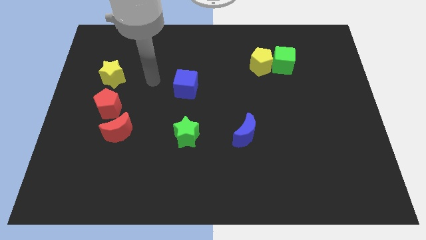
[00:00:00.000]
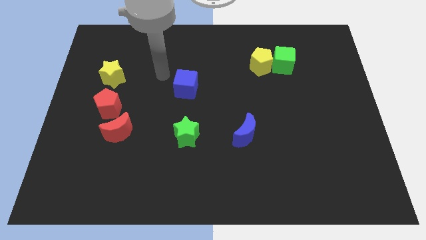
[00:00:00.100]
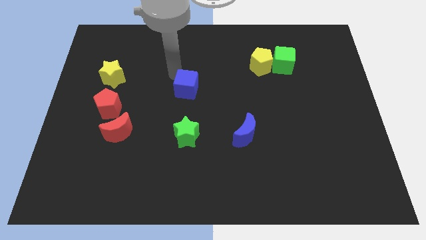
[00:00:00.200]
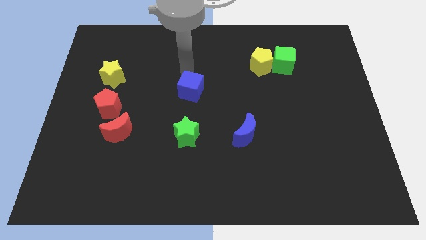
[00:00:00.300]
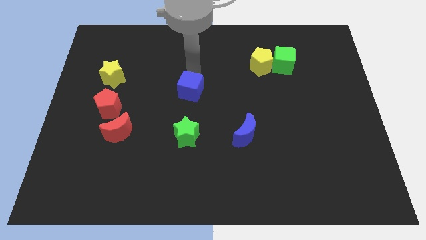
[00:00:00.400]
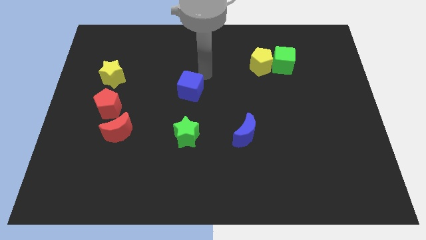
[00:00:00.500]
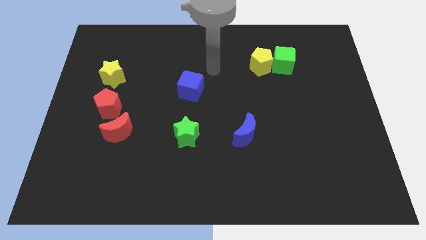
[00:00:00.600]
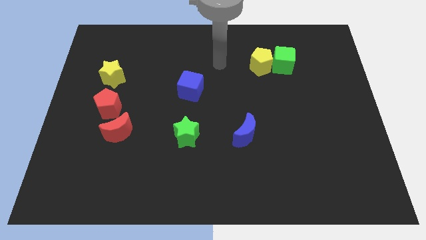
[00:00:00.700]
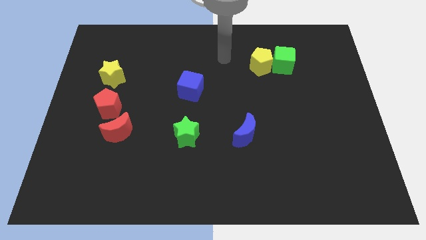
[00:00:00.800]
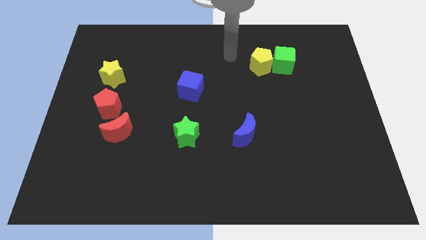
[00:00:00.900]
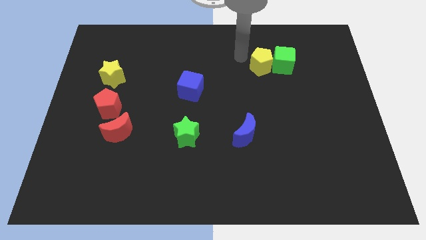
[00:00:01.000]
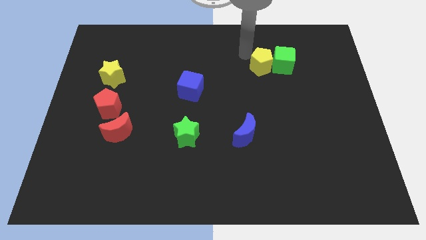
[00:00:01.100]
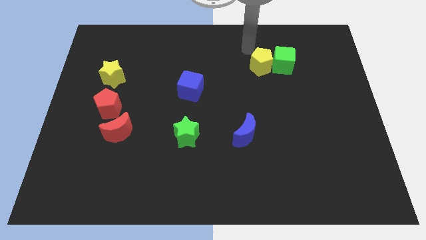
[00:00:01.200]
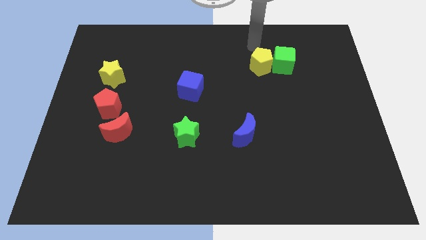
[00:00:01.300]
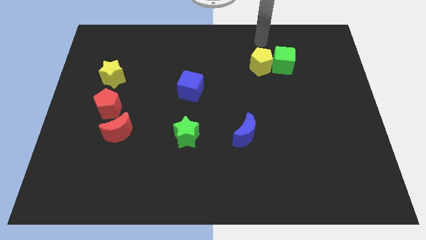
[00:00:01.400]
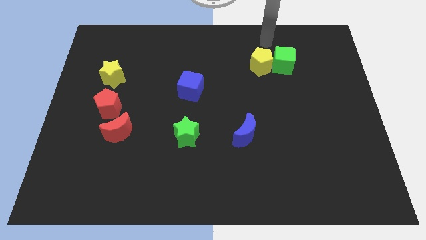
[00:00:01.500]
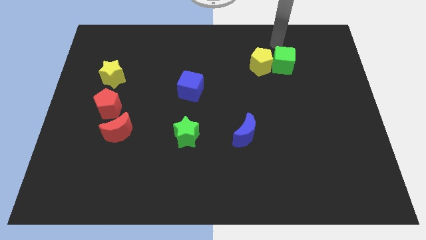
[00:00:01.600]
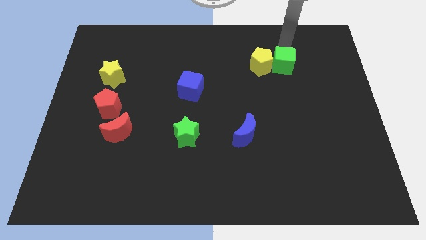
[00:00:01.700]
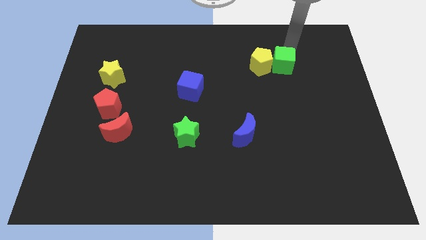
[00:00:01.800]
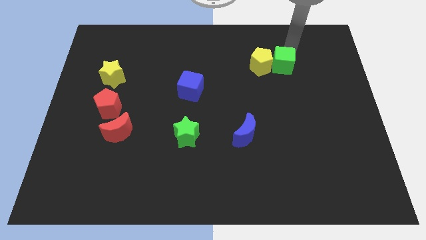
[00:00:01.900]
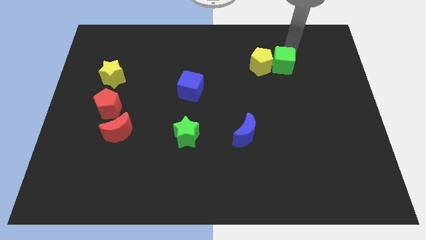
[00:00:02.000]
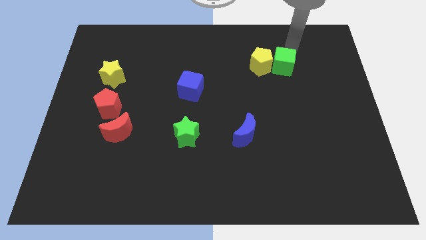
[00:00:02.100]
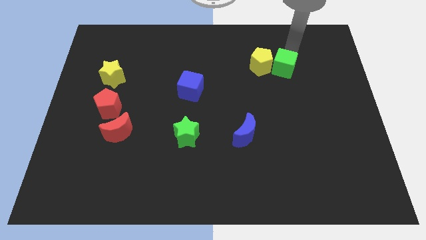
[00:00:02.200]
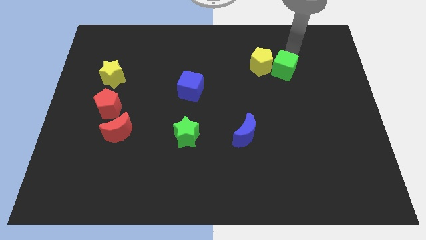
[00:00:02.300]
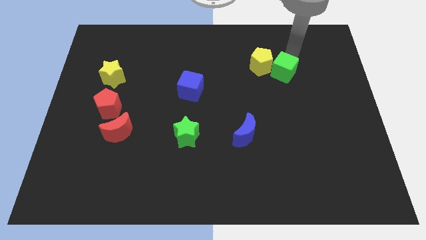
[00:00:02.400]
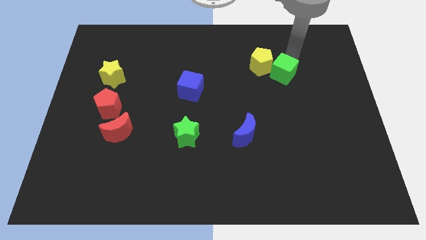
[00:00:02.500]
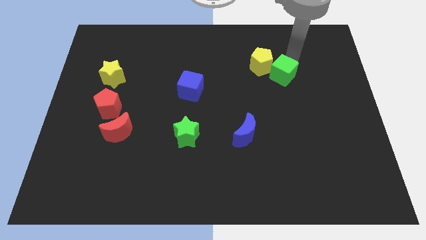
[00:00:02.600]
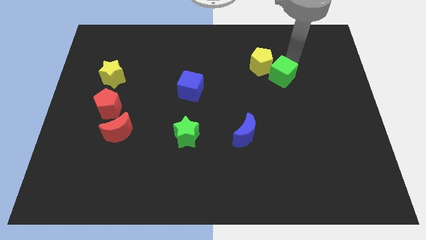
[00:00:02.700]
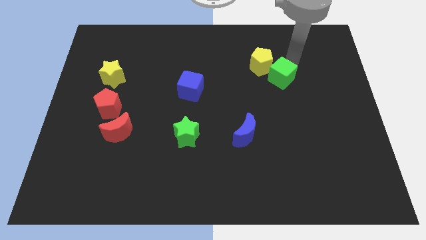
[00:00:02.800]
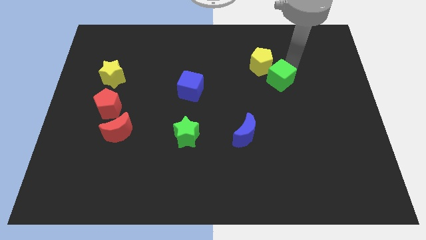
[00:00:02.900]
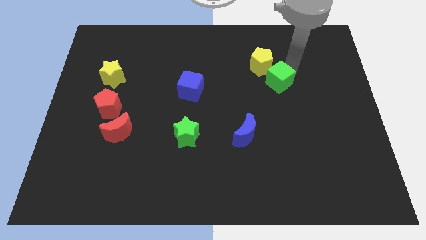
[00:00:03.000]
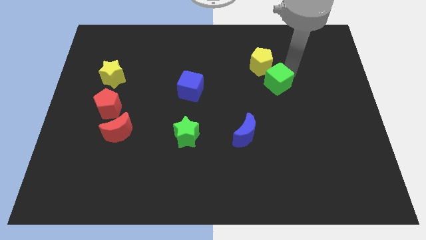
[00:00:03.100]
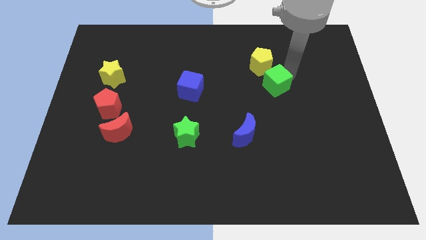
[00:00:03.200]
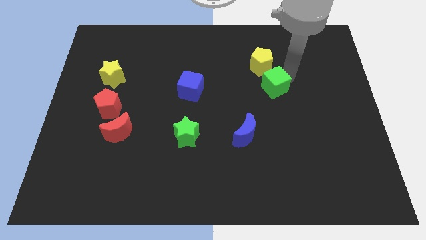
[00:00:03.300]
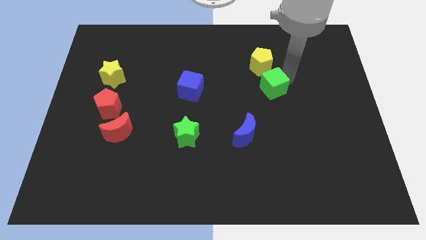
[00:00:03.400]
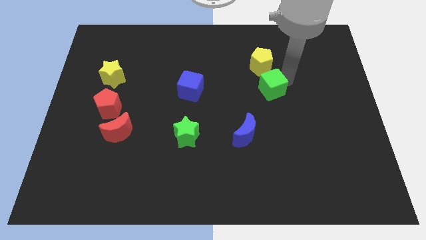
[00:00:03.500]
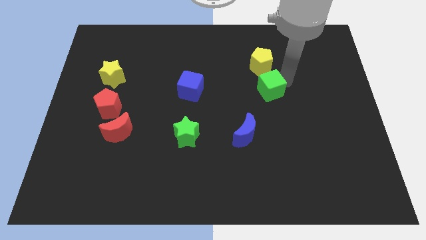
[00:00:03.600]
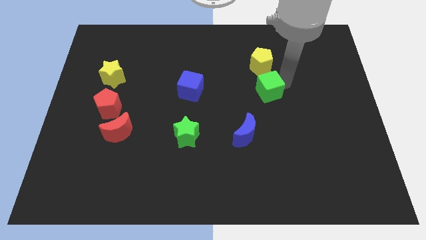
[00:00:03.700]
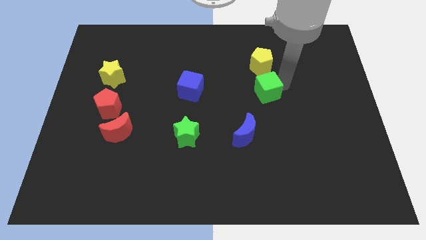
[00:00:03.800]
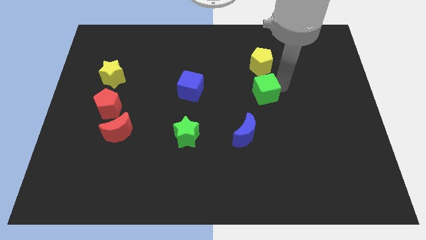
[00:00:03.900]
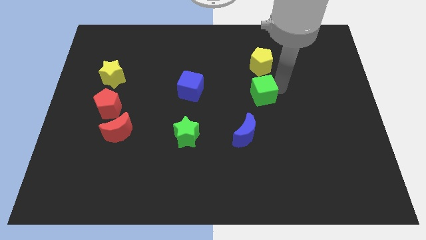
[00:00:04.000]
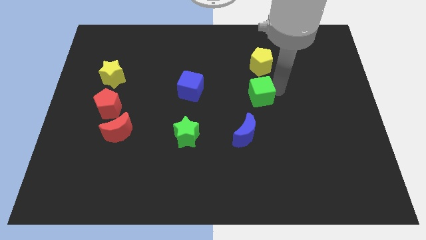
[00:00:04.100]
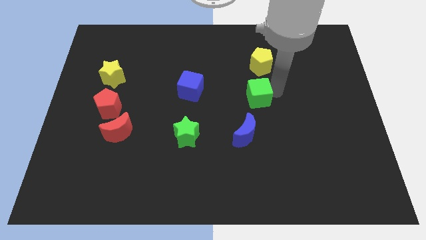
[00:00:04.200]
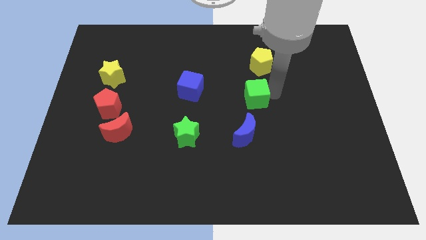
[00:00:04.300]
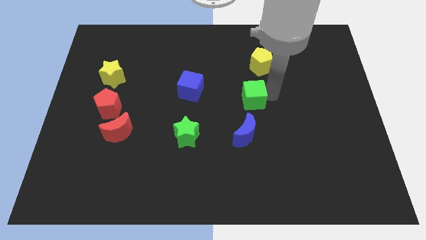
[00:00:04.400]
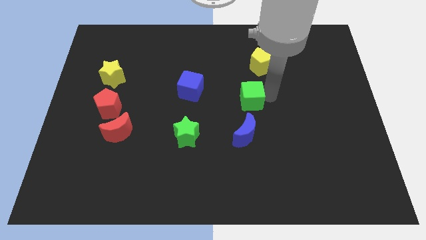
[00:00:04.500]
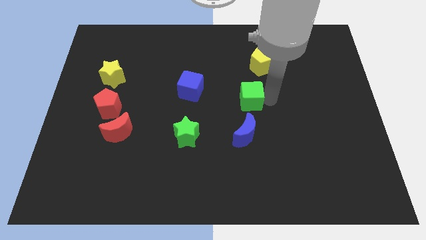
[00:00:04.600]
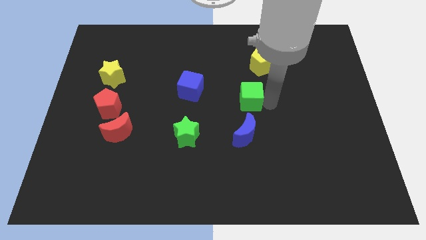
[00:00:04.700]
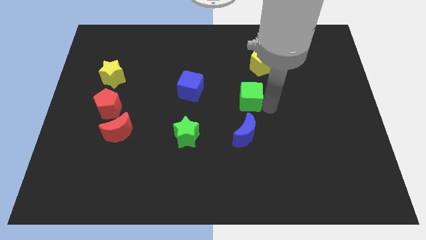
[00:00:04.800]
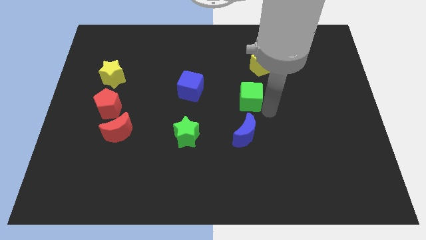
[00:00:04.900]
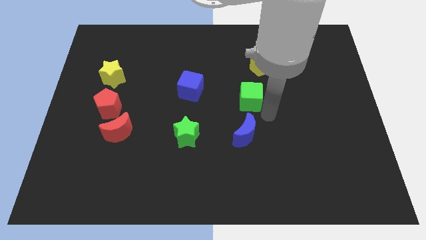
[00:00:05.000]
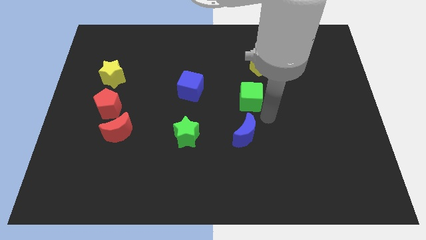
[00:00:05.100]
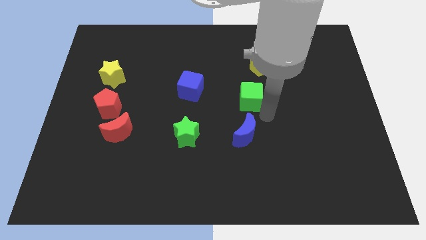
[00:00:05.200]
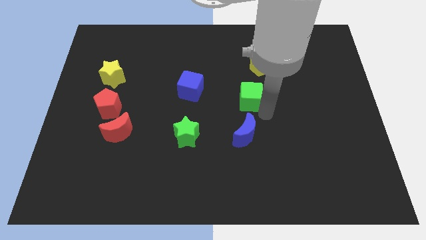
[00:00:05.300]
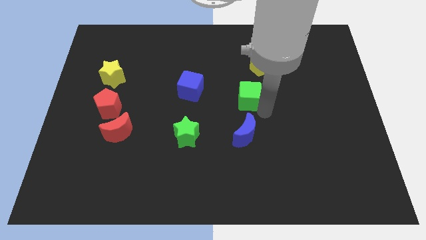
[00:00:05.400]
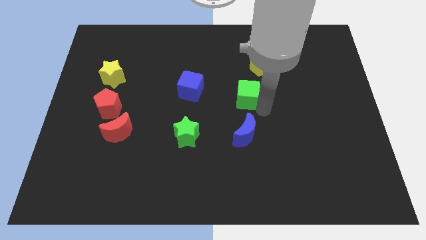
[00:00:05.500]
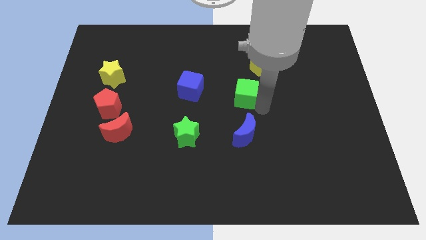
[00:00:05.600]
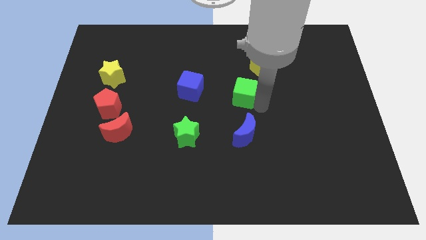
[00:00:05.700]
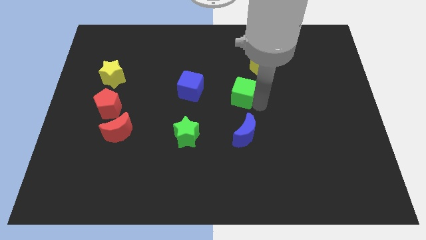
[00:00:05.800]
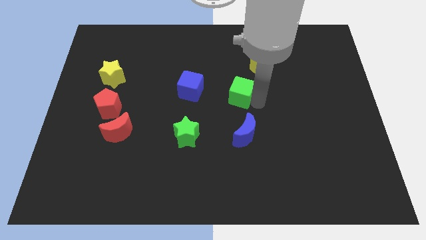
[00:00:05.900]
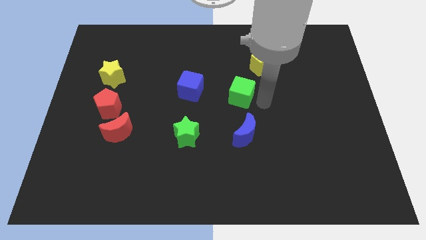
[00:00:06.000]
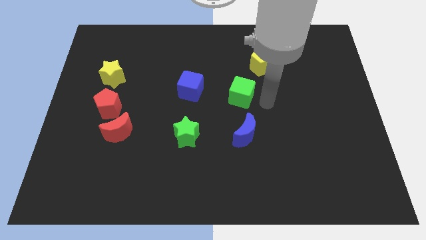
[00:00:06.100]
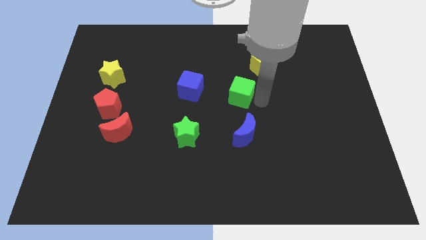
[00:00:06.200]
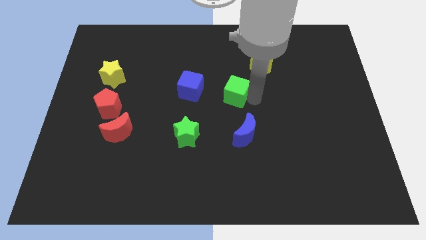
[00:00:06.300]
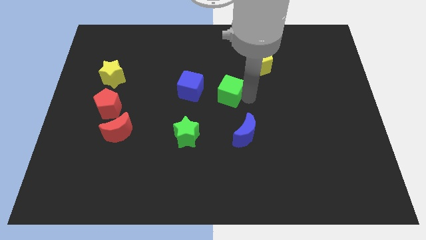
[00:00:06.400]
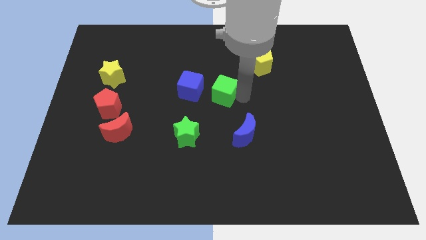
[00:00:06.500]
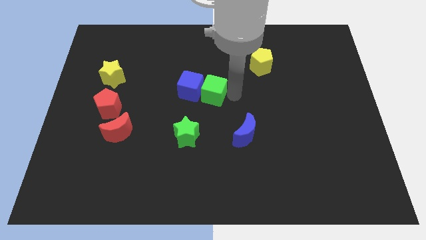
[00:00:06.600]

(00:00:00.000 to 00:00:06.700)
push the green cube towards the blue cube

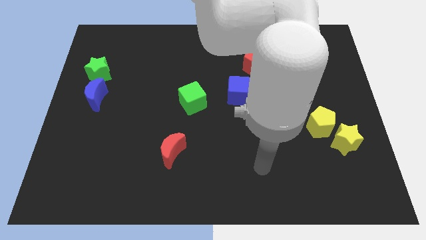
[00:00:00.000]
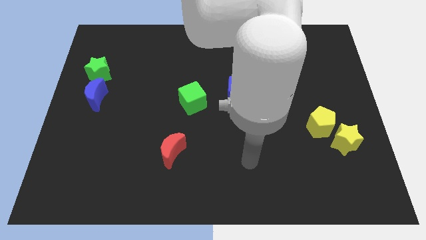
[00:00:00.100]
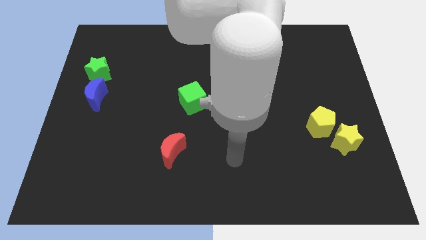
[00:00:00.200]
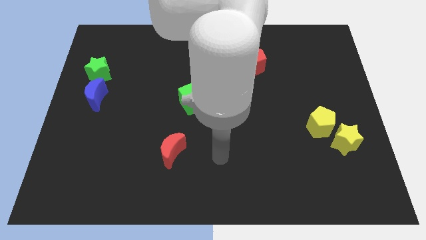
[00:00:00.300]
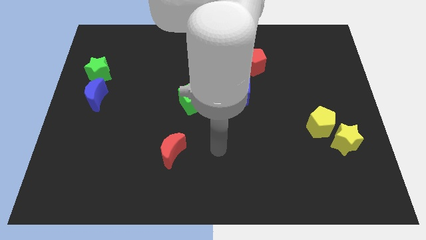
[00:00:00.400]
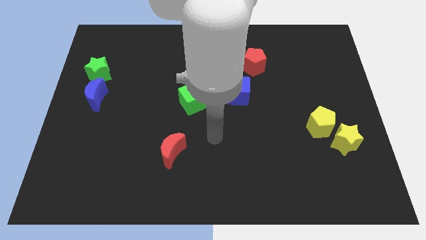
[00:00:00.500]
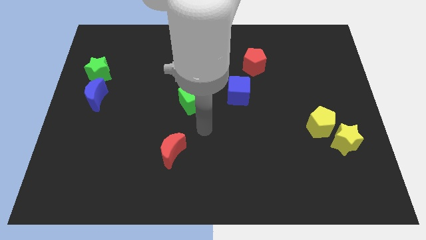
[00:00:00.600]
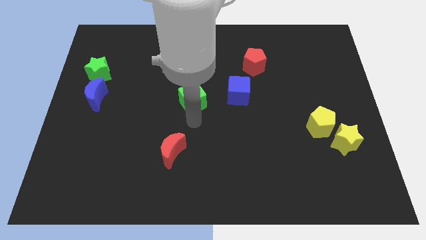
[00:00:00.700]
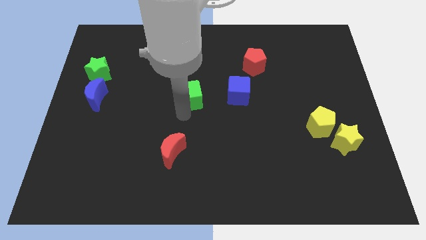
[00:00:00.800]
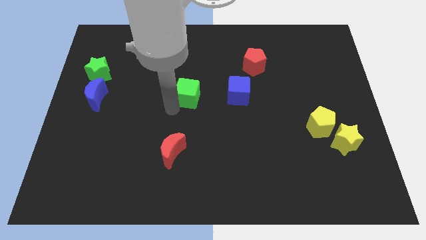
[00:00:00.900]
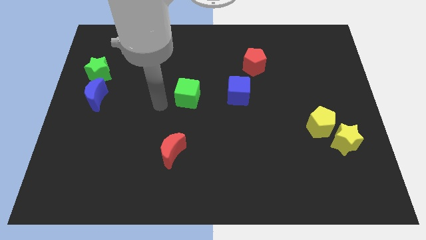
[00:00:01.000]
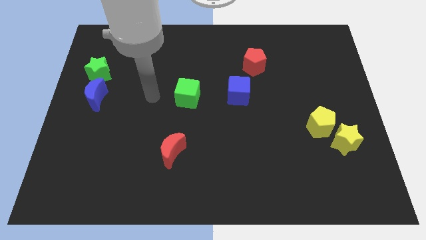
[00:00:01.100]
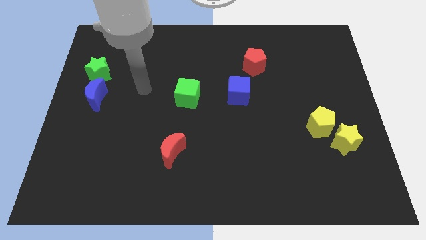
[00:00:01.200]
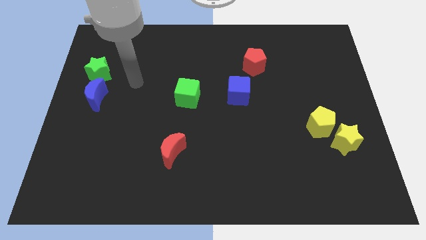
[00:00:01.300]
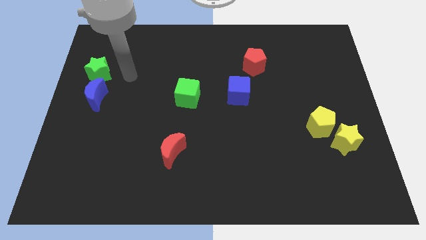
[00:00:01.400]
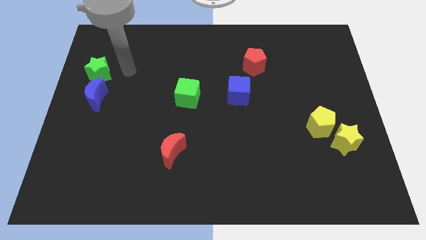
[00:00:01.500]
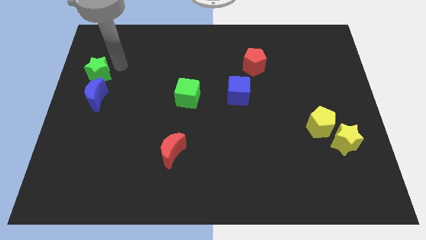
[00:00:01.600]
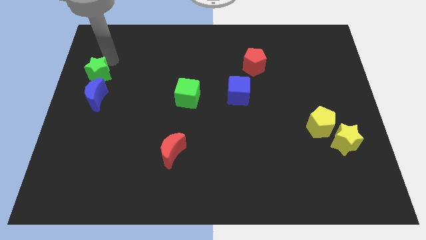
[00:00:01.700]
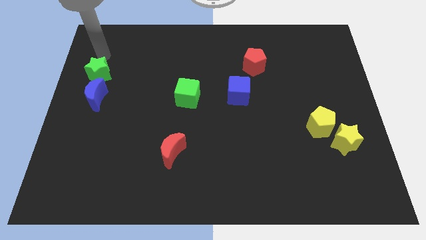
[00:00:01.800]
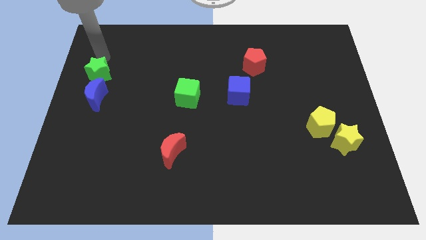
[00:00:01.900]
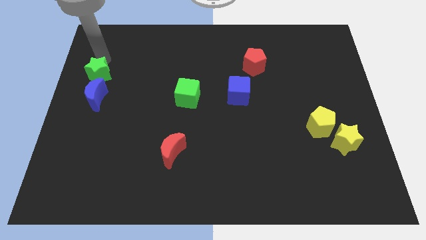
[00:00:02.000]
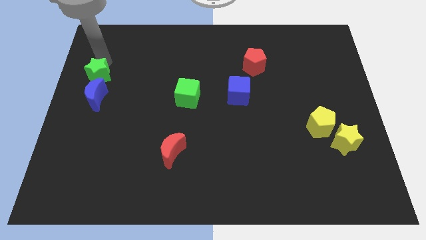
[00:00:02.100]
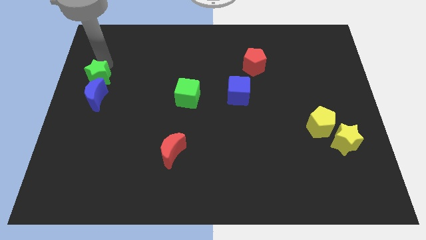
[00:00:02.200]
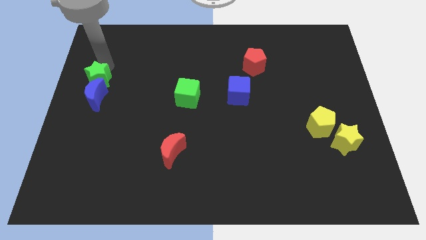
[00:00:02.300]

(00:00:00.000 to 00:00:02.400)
push the green star to the blue moon
